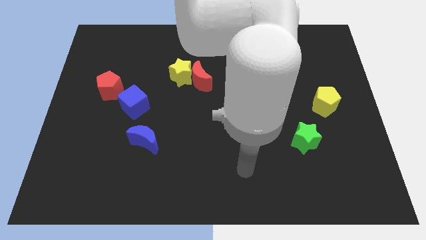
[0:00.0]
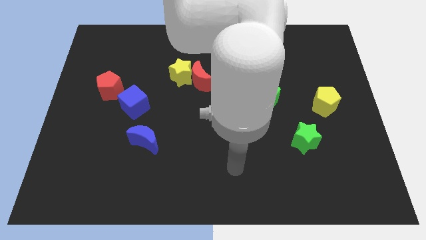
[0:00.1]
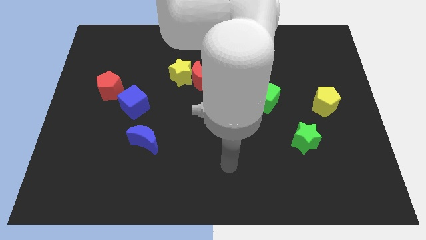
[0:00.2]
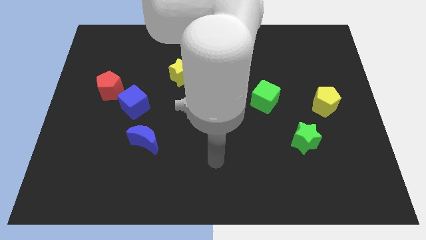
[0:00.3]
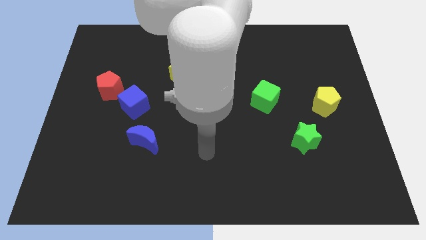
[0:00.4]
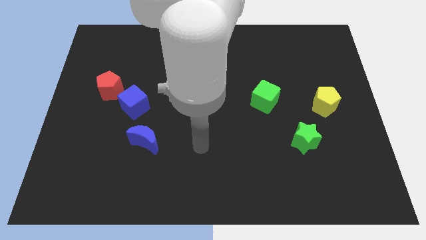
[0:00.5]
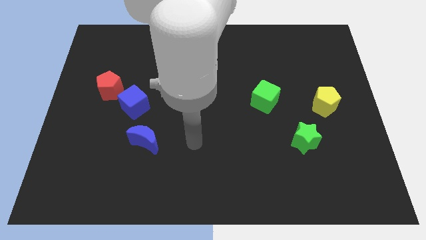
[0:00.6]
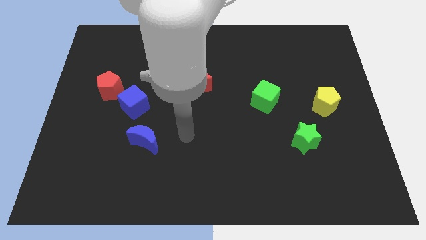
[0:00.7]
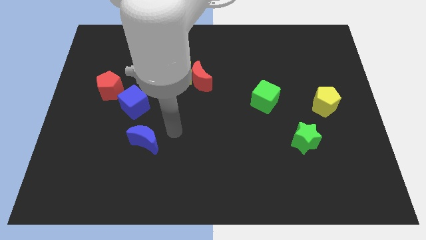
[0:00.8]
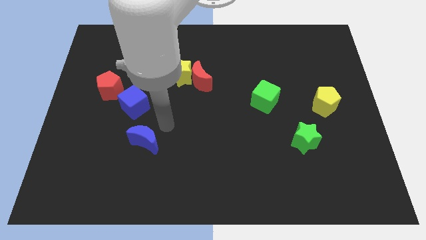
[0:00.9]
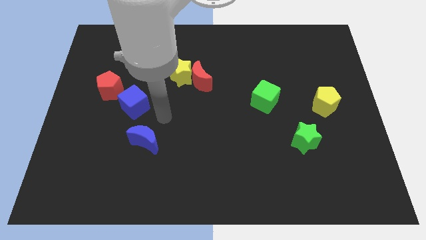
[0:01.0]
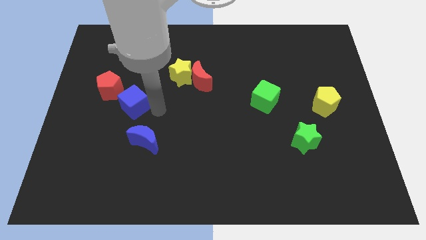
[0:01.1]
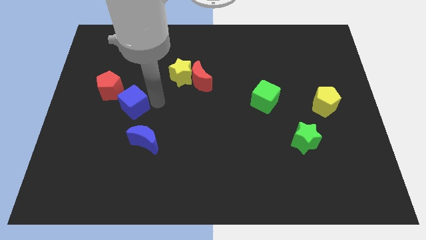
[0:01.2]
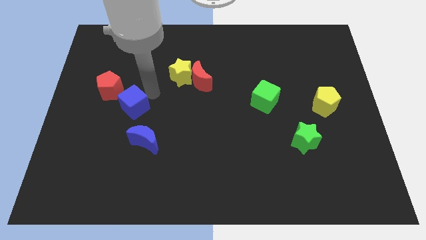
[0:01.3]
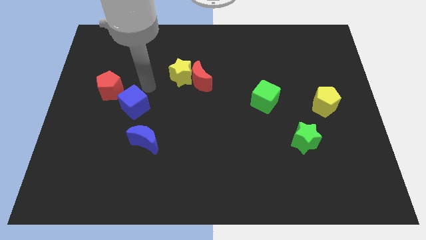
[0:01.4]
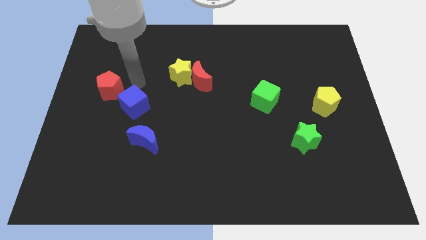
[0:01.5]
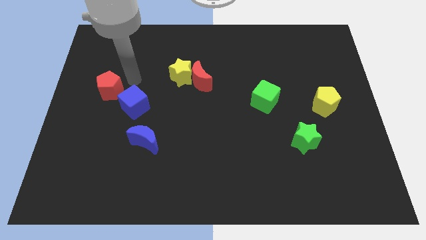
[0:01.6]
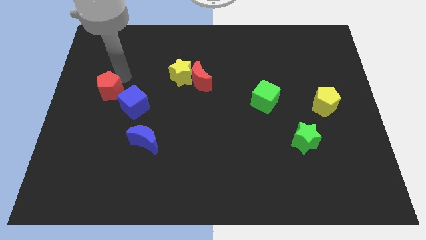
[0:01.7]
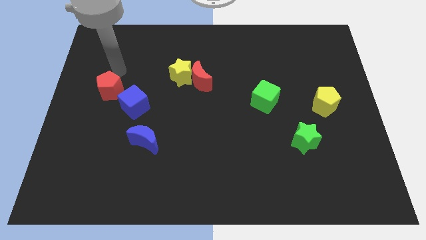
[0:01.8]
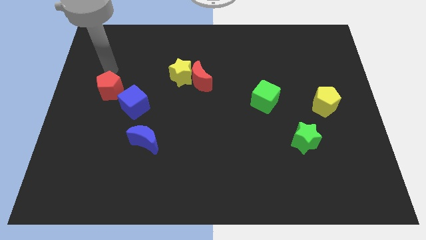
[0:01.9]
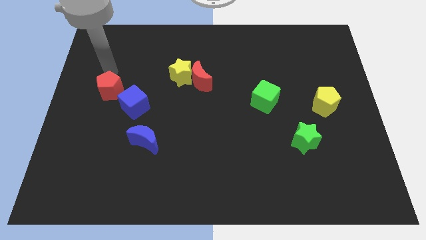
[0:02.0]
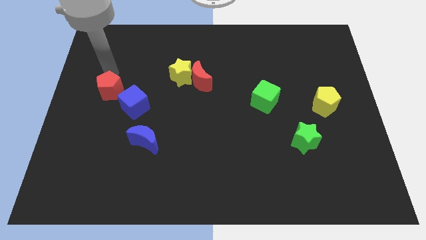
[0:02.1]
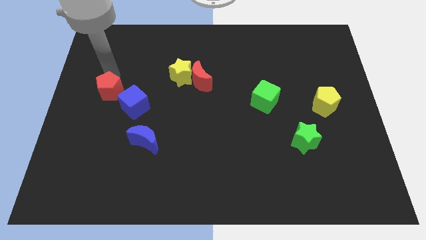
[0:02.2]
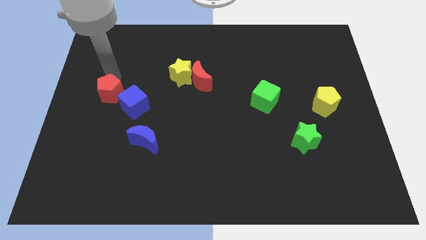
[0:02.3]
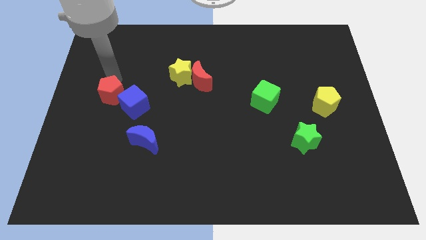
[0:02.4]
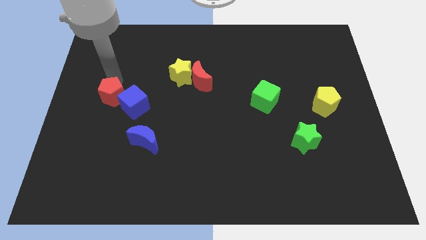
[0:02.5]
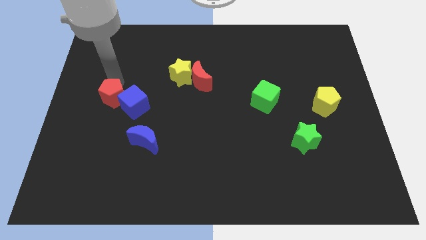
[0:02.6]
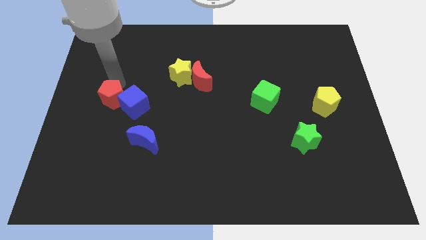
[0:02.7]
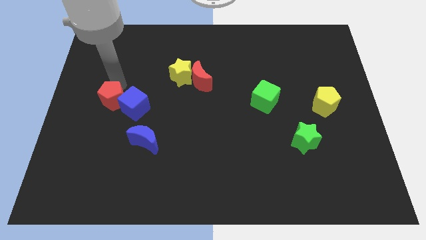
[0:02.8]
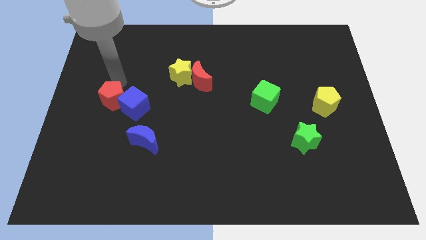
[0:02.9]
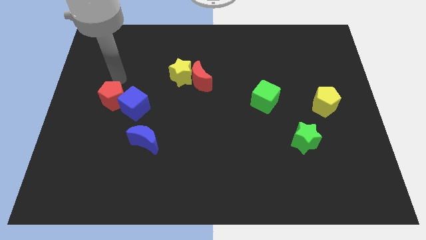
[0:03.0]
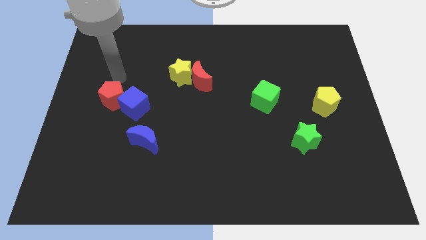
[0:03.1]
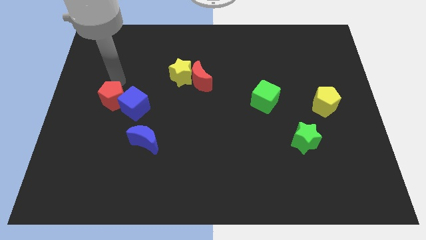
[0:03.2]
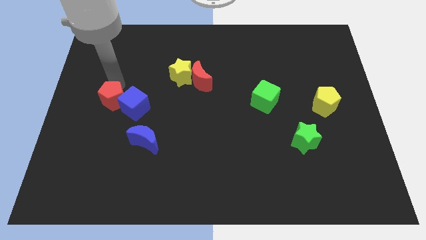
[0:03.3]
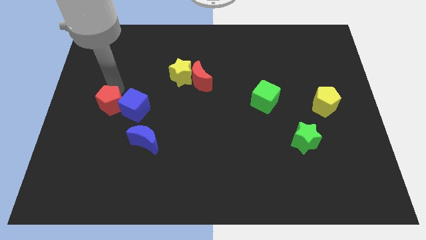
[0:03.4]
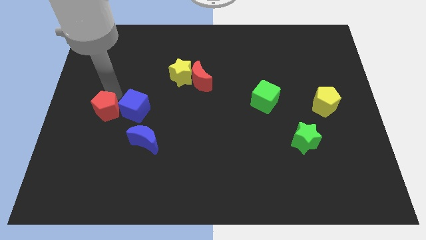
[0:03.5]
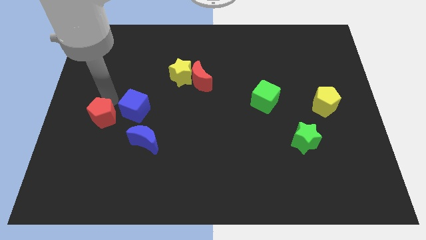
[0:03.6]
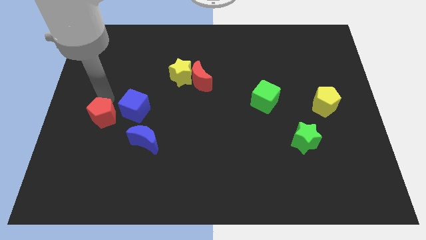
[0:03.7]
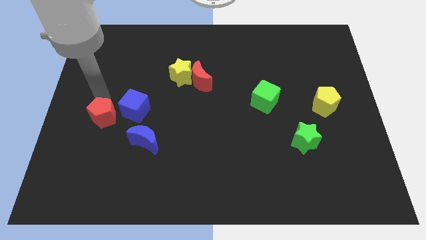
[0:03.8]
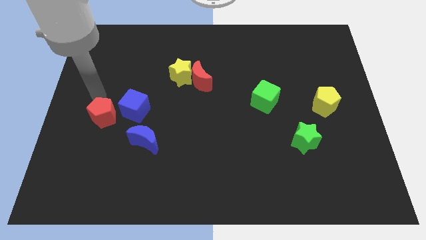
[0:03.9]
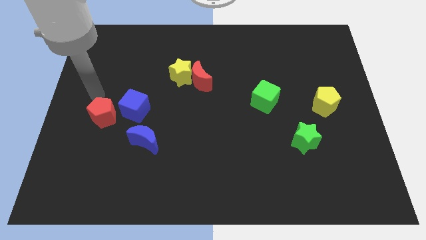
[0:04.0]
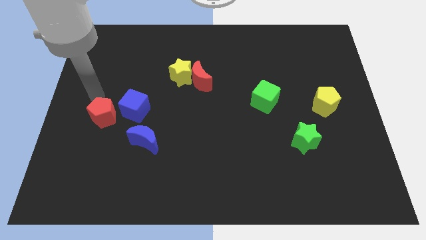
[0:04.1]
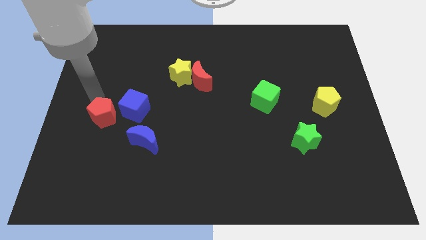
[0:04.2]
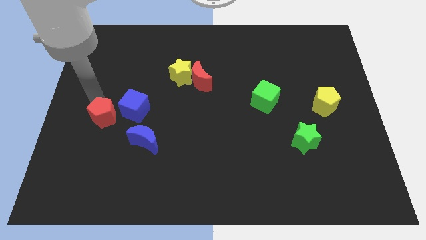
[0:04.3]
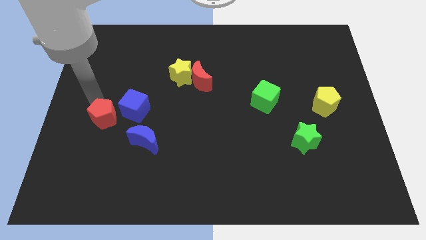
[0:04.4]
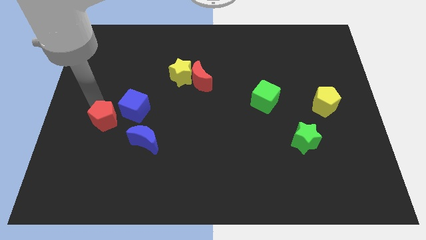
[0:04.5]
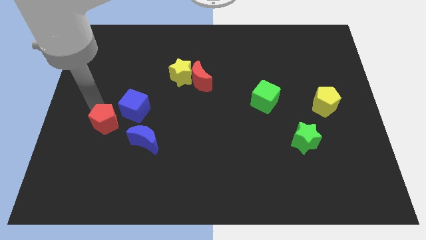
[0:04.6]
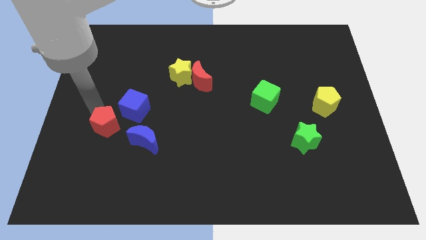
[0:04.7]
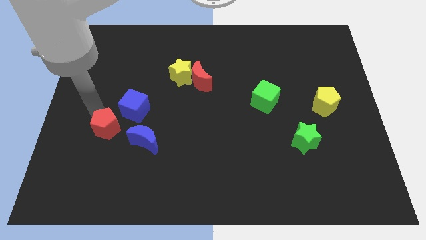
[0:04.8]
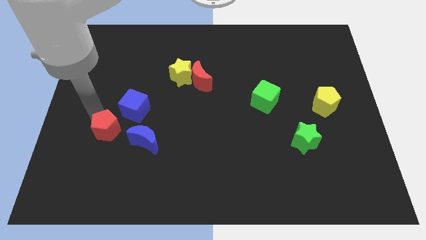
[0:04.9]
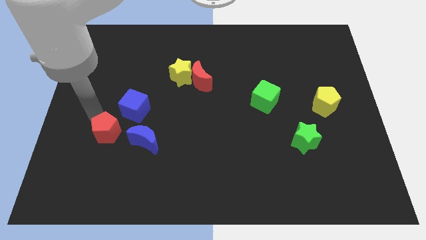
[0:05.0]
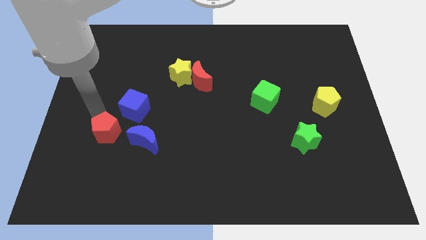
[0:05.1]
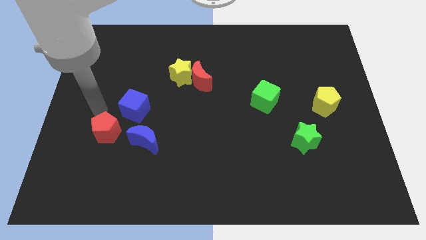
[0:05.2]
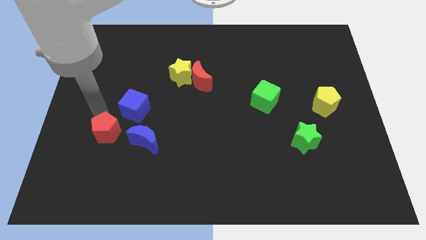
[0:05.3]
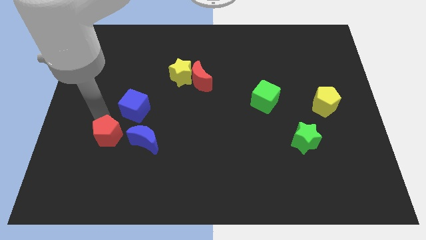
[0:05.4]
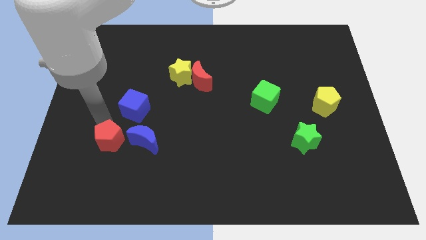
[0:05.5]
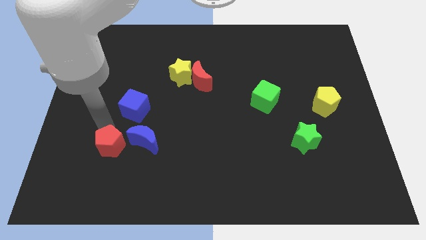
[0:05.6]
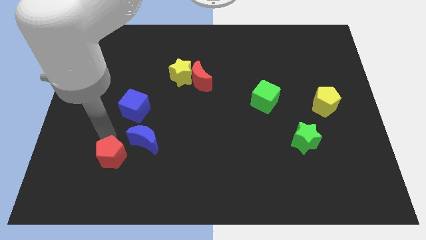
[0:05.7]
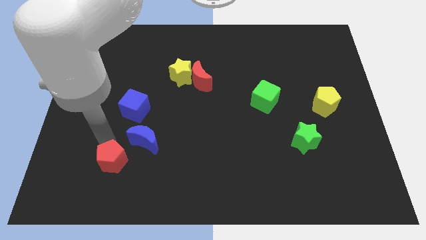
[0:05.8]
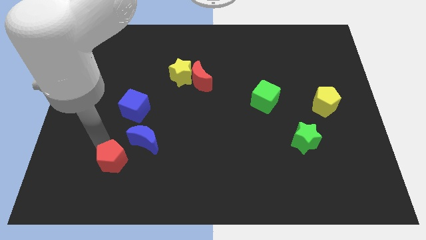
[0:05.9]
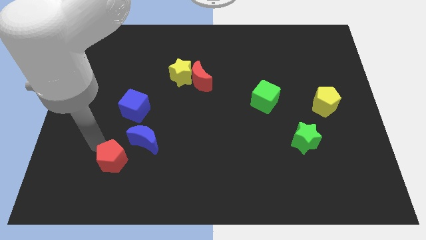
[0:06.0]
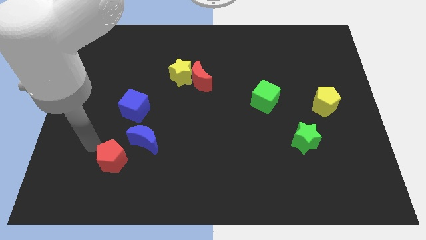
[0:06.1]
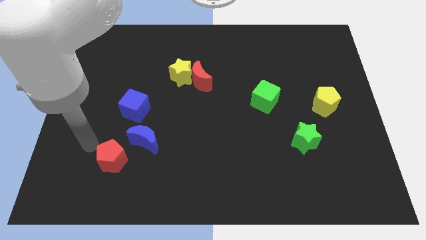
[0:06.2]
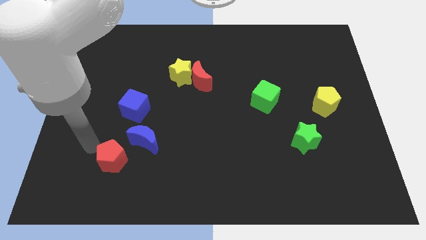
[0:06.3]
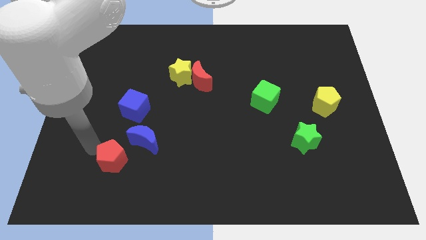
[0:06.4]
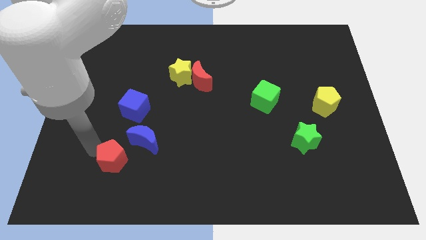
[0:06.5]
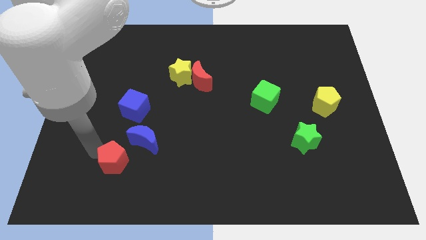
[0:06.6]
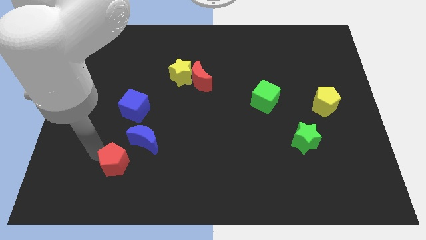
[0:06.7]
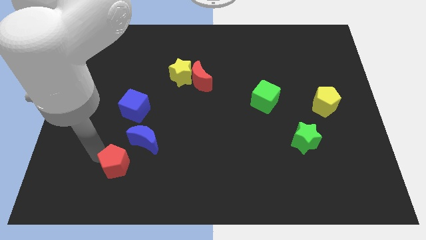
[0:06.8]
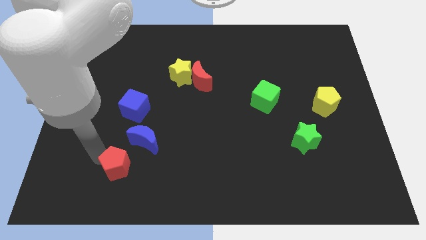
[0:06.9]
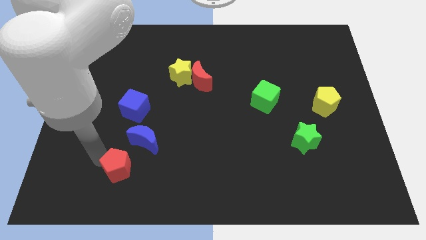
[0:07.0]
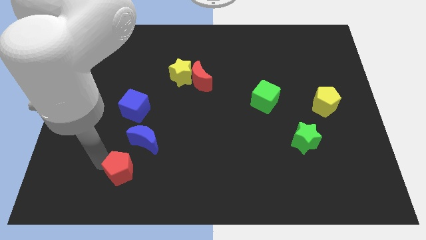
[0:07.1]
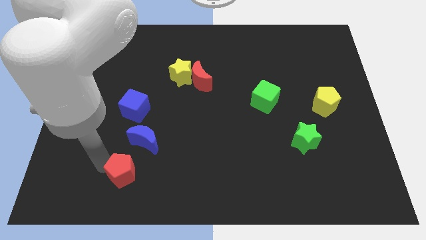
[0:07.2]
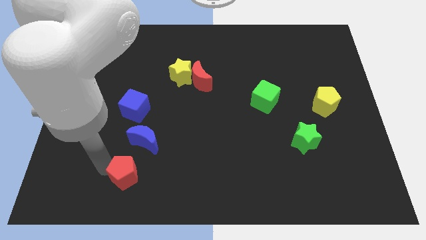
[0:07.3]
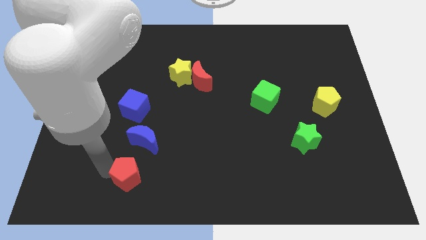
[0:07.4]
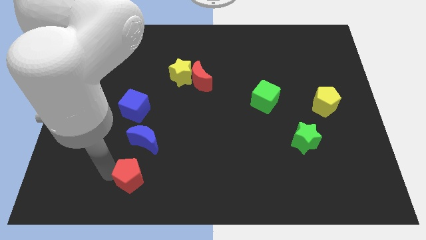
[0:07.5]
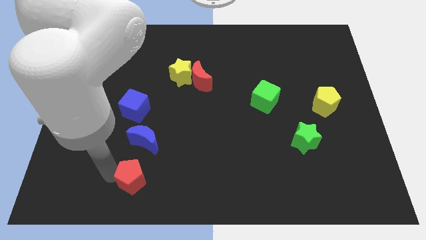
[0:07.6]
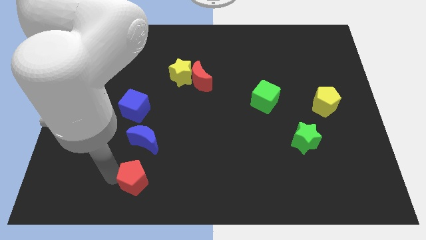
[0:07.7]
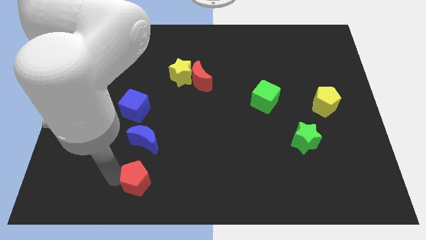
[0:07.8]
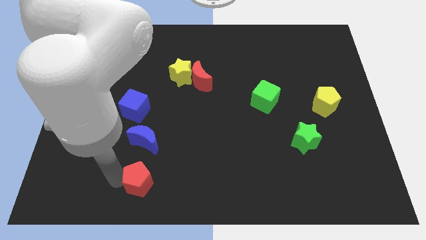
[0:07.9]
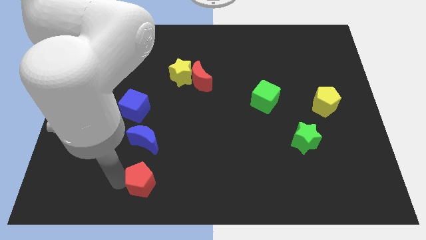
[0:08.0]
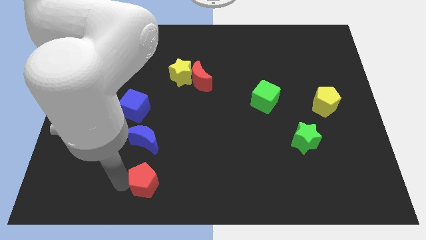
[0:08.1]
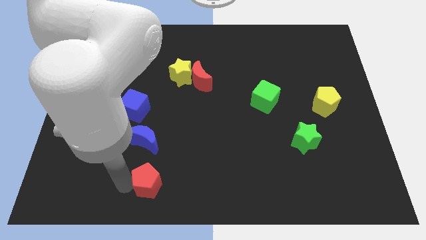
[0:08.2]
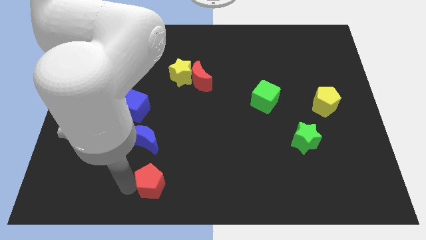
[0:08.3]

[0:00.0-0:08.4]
slide the red pentagon to the bottom side
